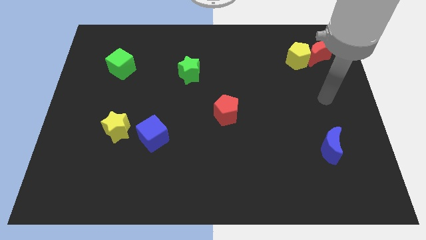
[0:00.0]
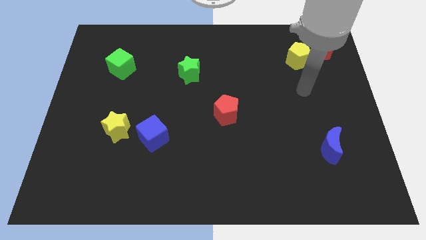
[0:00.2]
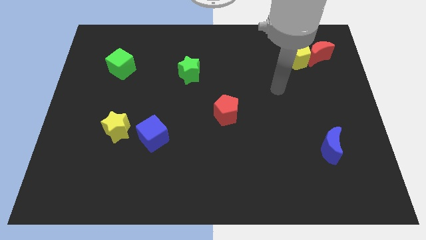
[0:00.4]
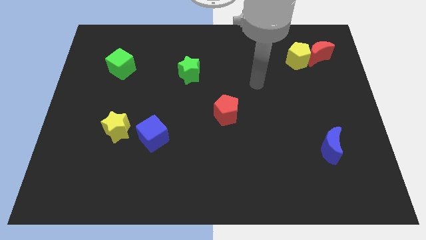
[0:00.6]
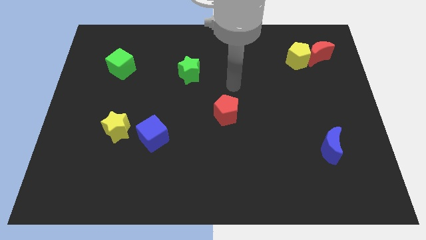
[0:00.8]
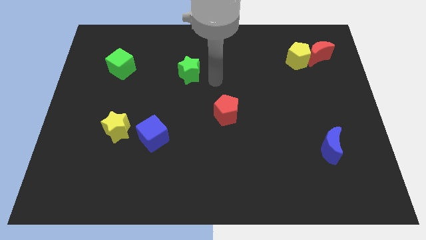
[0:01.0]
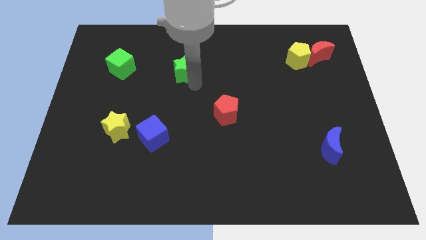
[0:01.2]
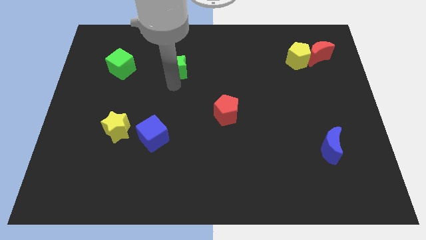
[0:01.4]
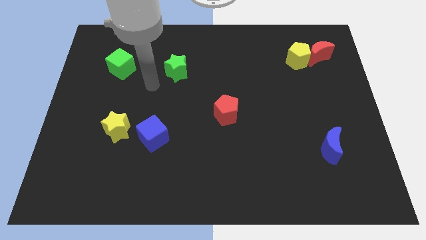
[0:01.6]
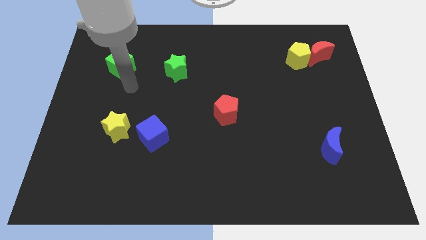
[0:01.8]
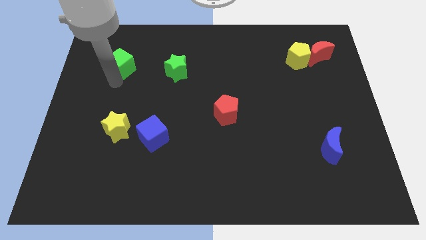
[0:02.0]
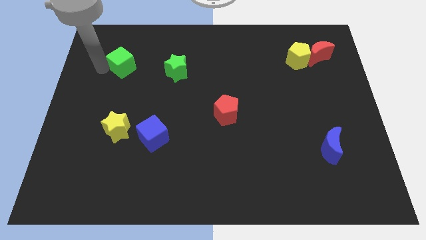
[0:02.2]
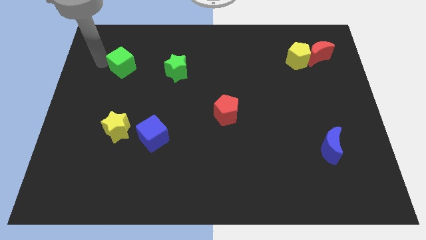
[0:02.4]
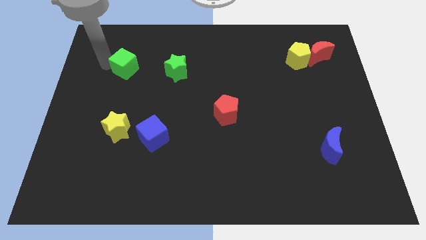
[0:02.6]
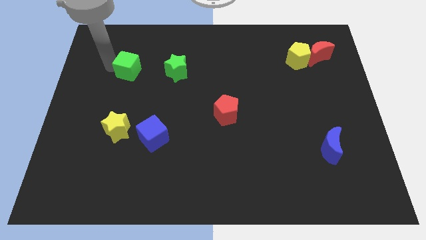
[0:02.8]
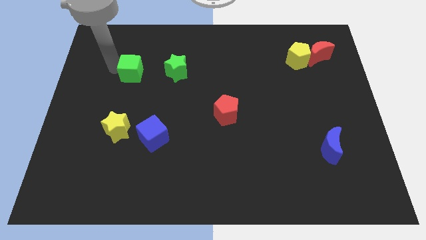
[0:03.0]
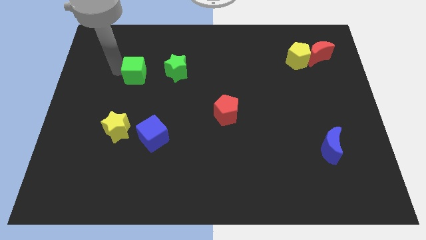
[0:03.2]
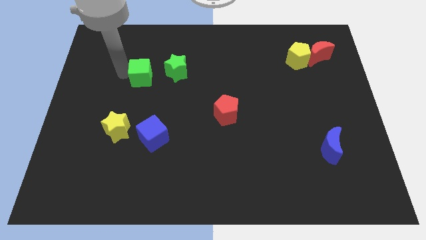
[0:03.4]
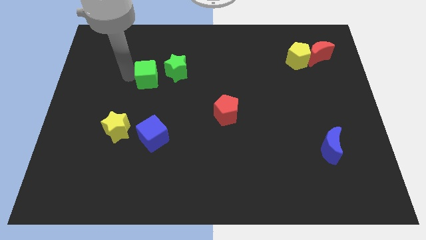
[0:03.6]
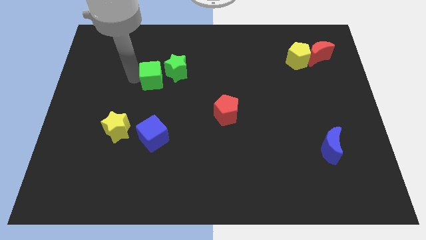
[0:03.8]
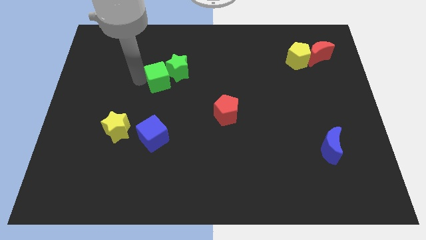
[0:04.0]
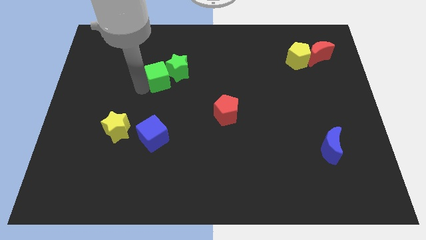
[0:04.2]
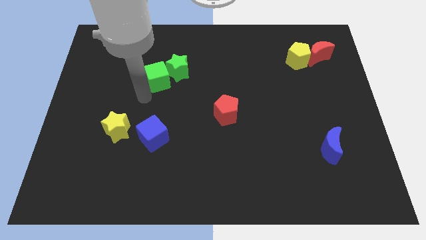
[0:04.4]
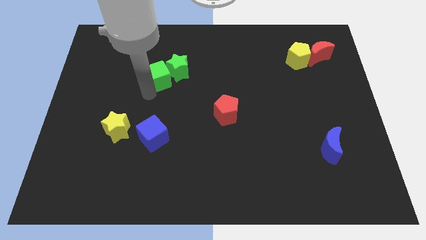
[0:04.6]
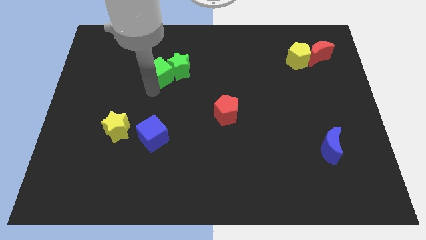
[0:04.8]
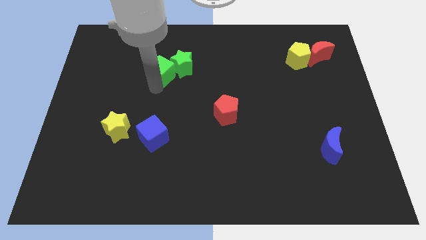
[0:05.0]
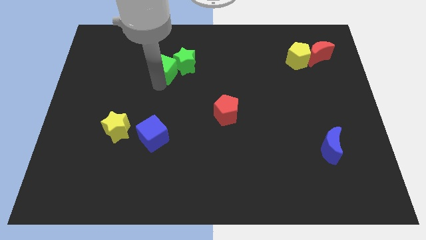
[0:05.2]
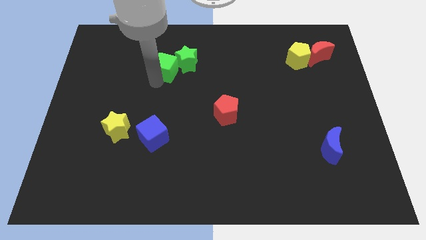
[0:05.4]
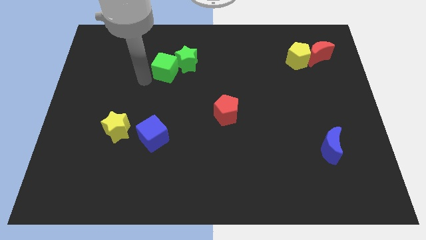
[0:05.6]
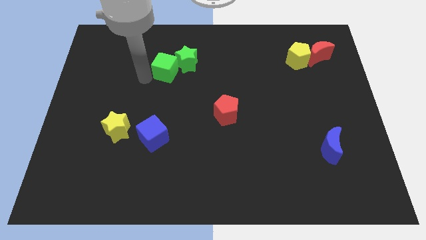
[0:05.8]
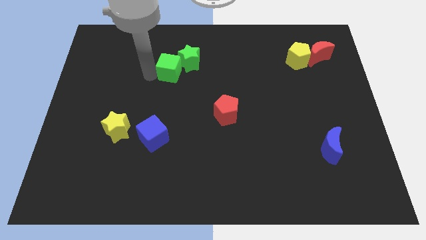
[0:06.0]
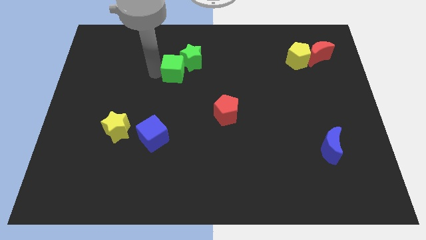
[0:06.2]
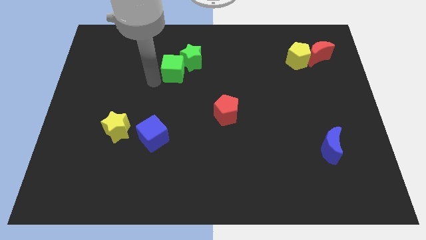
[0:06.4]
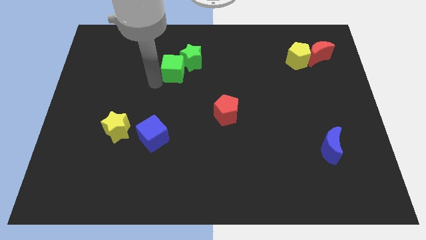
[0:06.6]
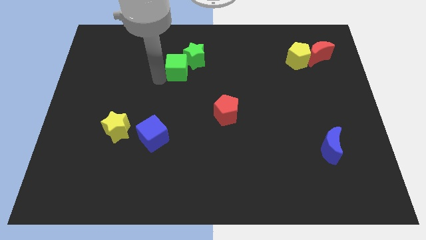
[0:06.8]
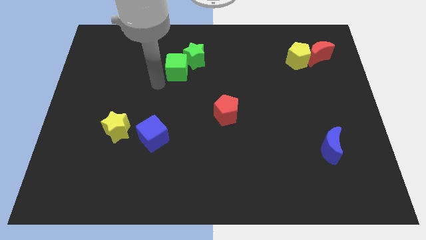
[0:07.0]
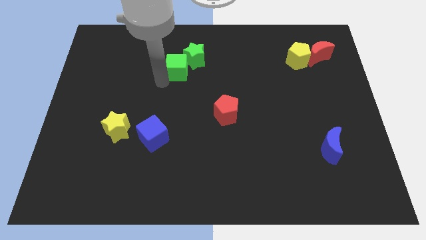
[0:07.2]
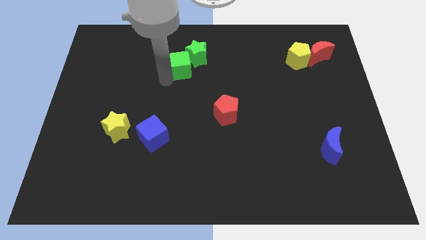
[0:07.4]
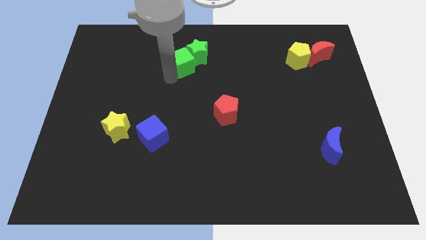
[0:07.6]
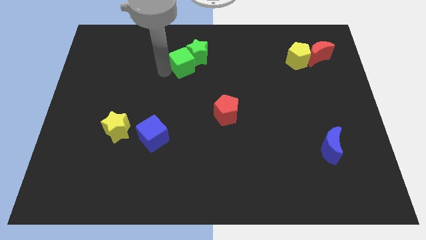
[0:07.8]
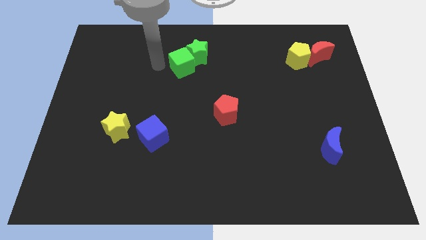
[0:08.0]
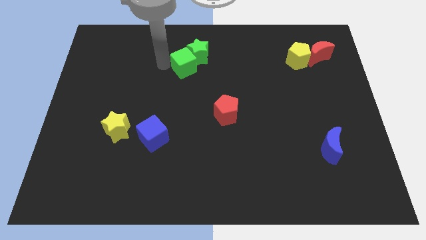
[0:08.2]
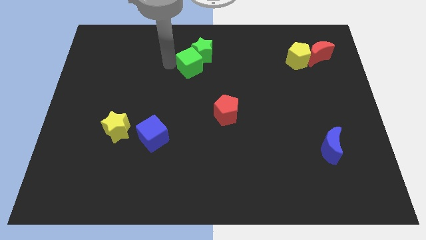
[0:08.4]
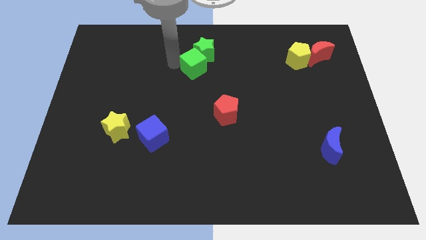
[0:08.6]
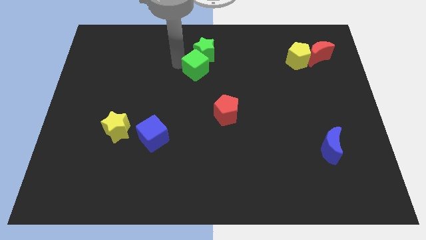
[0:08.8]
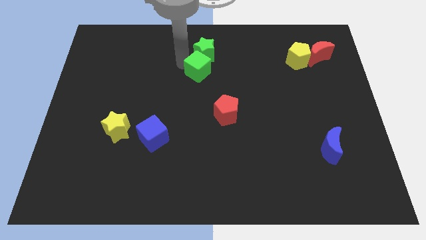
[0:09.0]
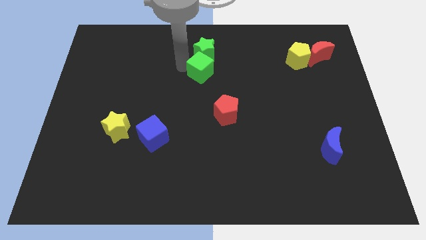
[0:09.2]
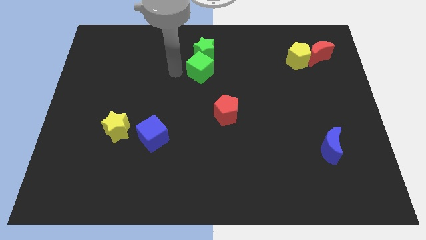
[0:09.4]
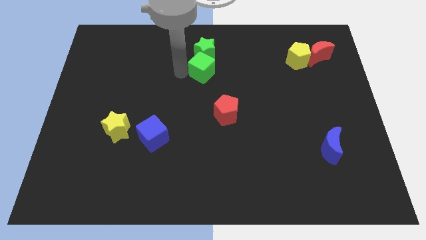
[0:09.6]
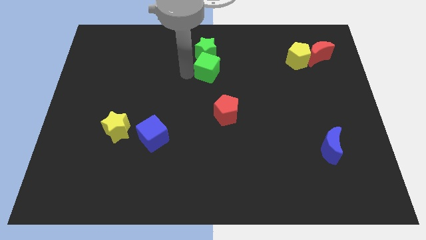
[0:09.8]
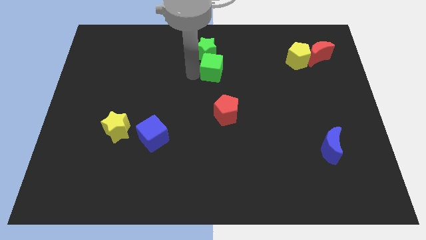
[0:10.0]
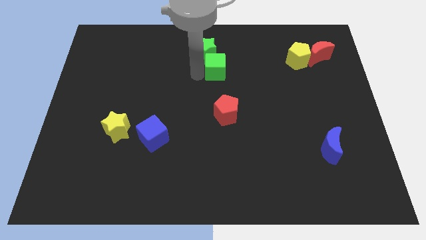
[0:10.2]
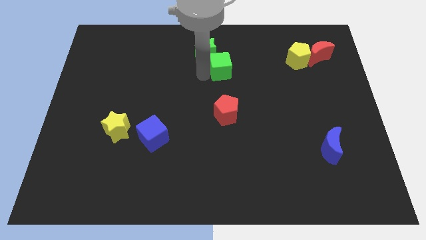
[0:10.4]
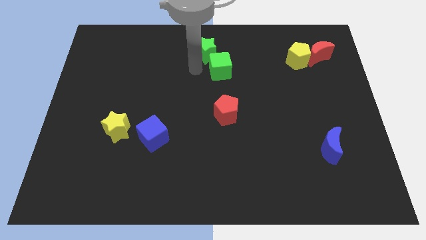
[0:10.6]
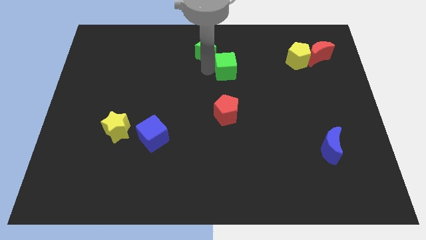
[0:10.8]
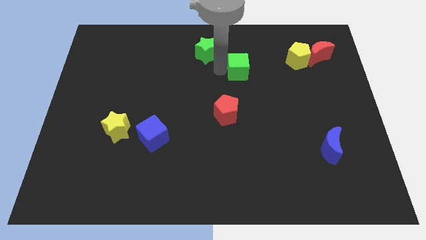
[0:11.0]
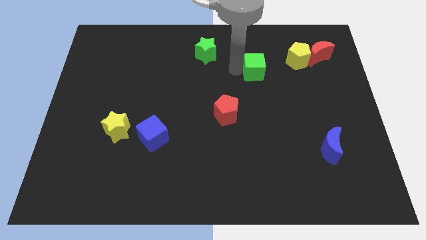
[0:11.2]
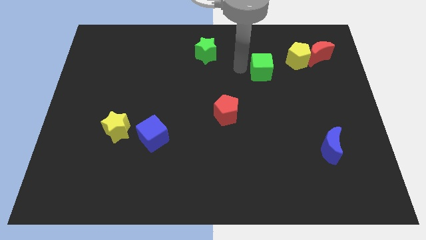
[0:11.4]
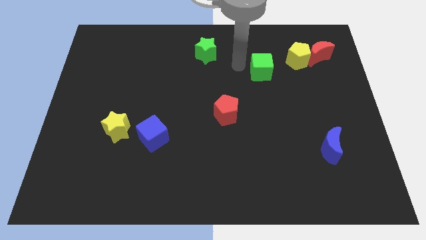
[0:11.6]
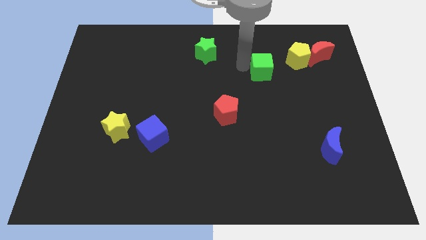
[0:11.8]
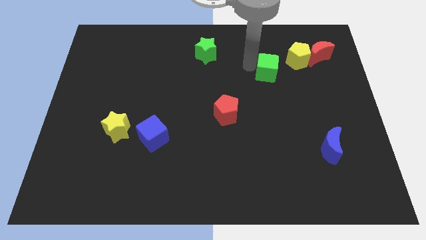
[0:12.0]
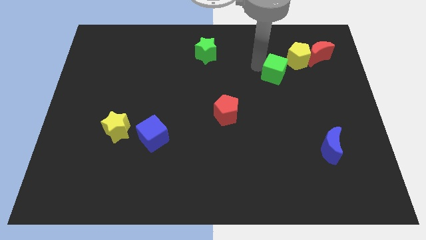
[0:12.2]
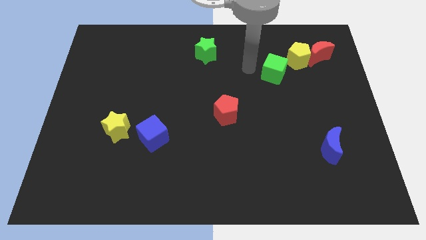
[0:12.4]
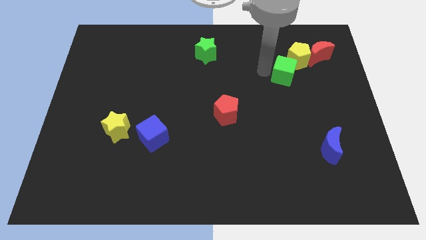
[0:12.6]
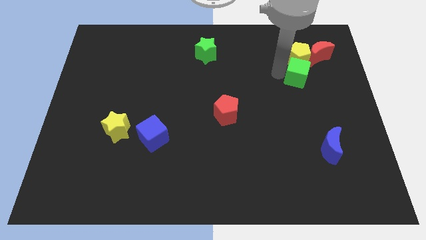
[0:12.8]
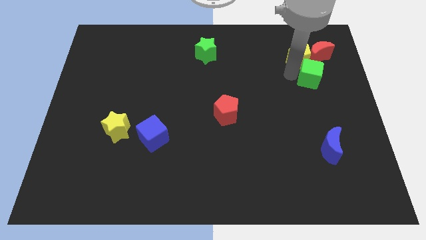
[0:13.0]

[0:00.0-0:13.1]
move the green cube to the bottom of the red moon
